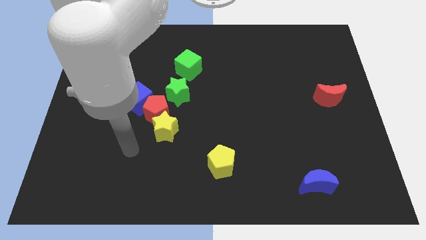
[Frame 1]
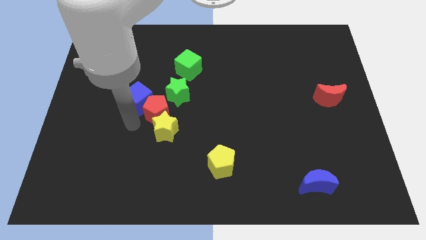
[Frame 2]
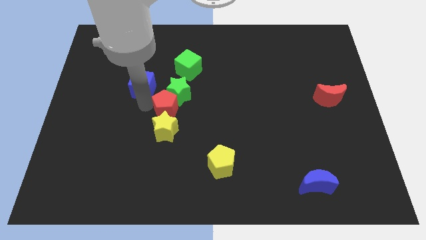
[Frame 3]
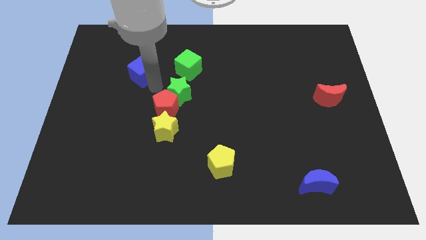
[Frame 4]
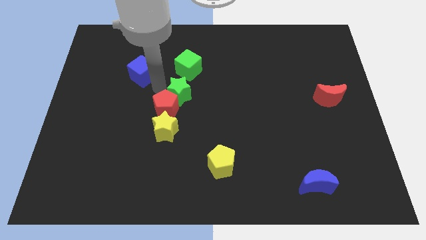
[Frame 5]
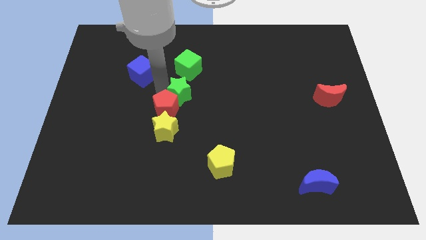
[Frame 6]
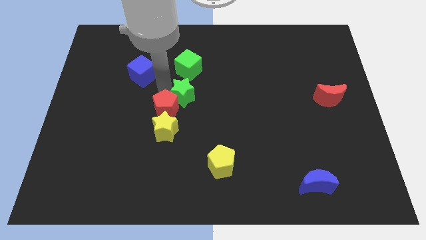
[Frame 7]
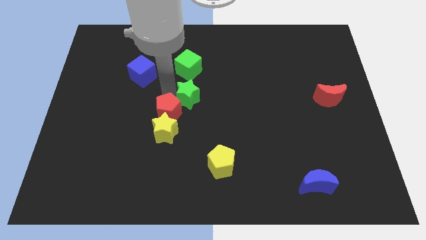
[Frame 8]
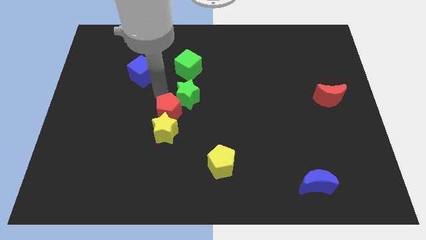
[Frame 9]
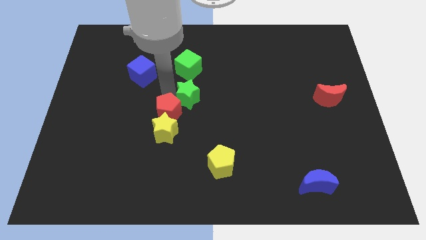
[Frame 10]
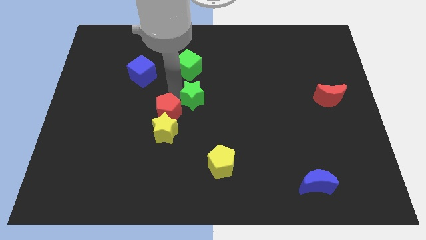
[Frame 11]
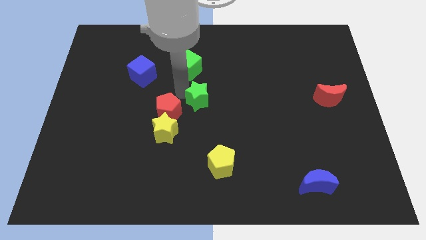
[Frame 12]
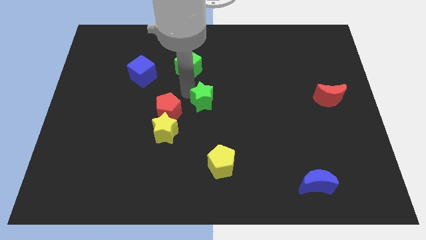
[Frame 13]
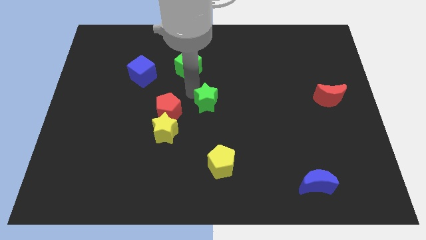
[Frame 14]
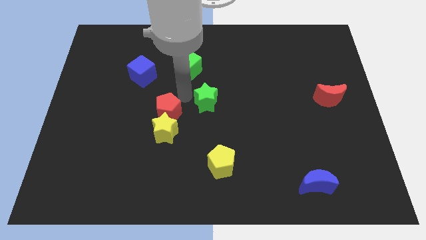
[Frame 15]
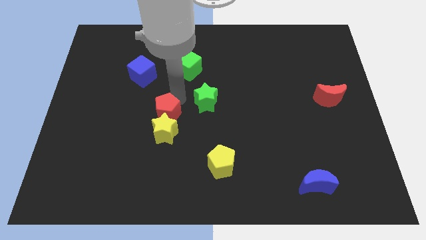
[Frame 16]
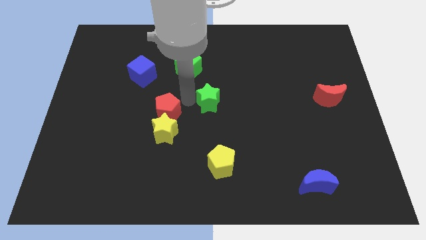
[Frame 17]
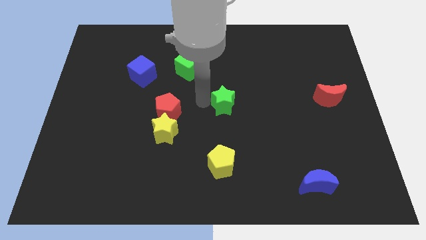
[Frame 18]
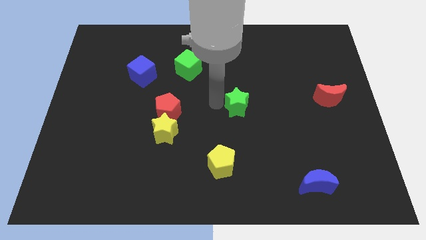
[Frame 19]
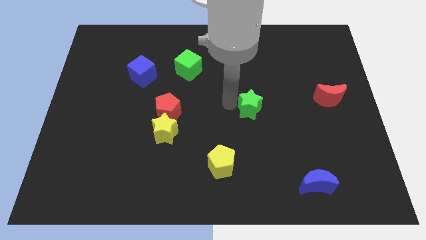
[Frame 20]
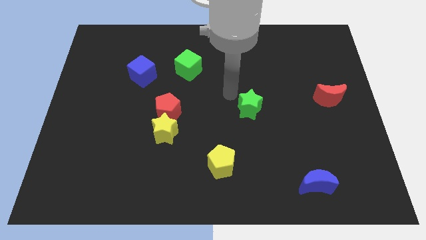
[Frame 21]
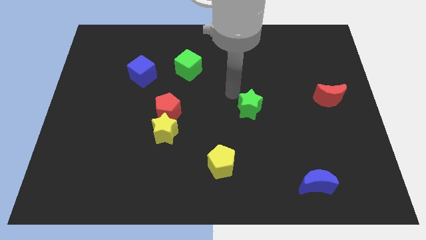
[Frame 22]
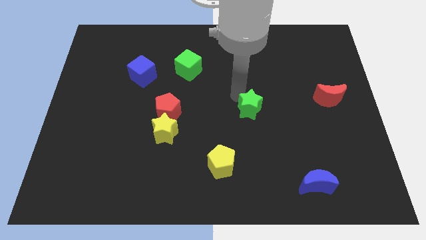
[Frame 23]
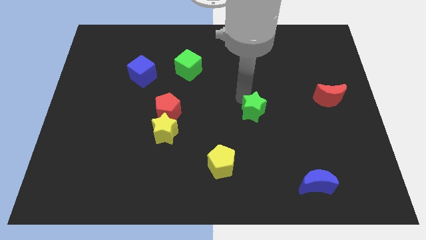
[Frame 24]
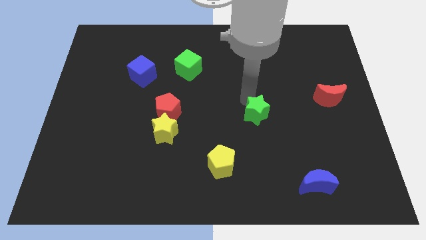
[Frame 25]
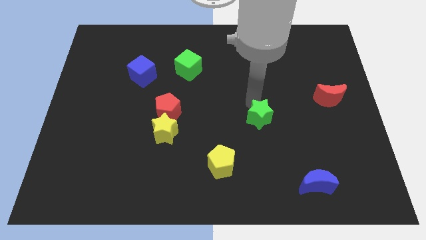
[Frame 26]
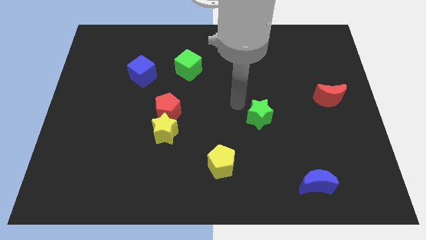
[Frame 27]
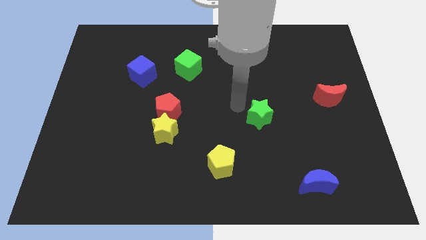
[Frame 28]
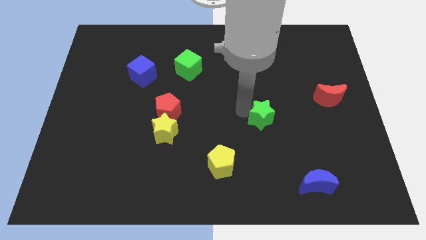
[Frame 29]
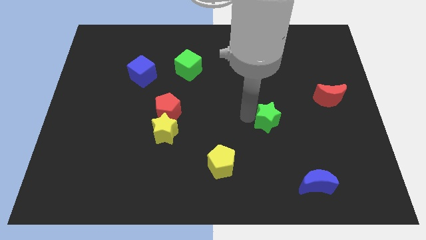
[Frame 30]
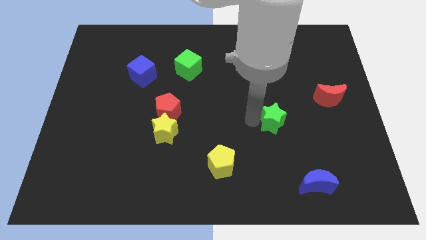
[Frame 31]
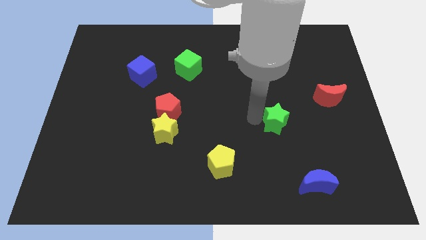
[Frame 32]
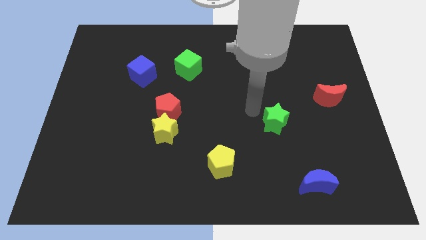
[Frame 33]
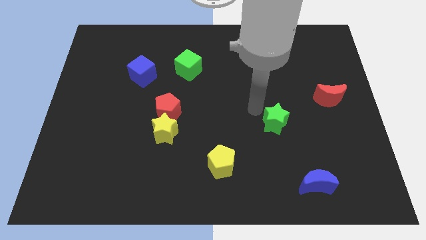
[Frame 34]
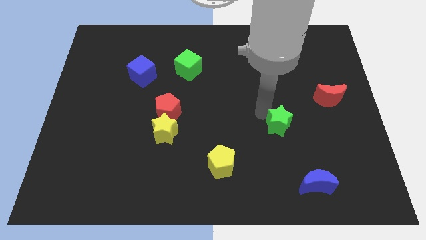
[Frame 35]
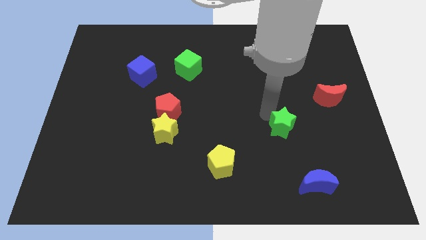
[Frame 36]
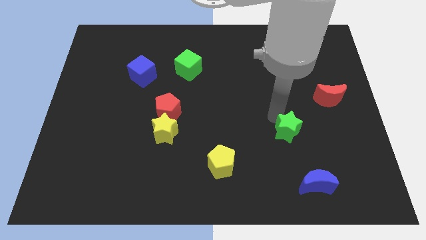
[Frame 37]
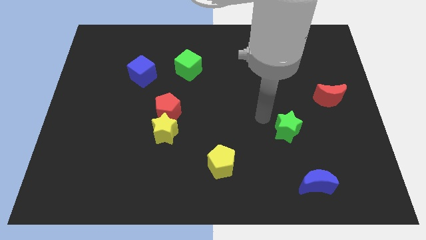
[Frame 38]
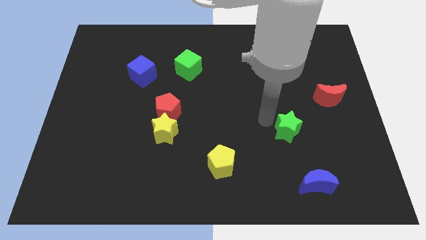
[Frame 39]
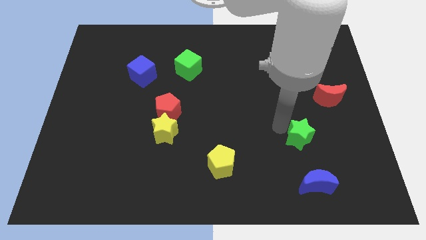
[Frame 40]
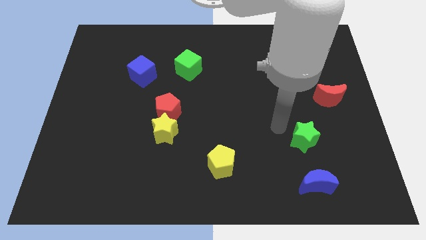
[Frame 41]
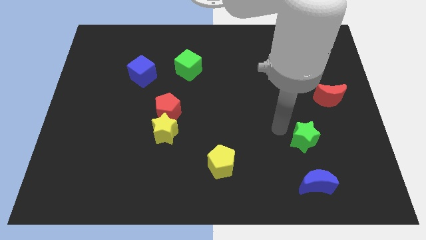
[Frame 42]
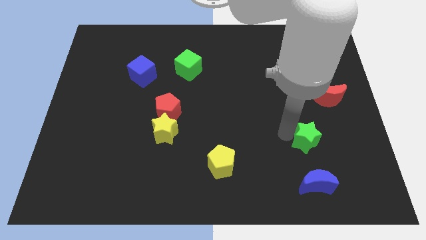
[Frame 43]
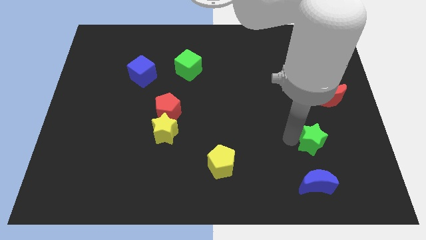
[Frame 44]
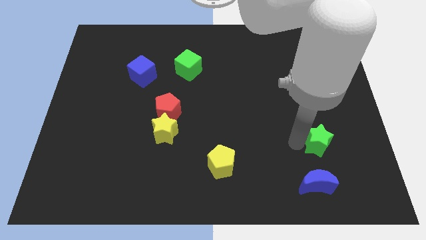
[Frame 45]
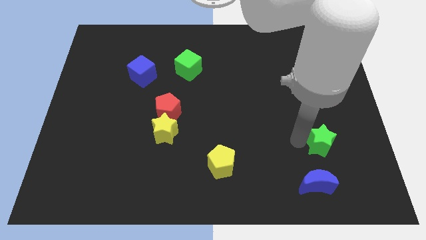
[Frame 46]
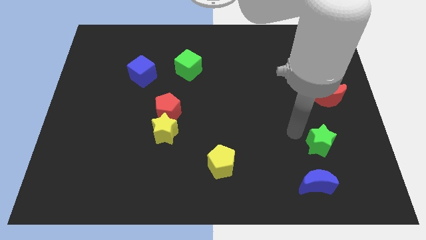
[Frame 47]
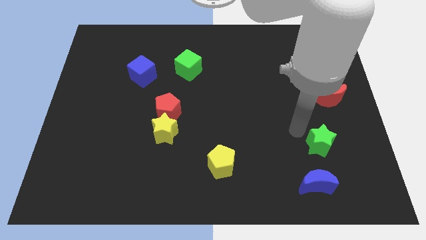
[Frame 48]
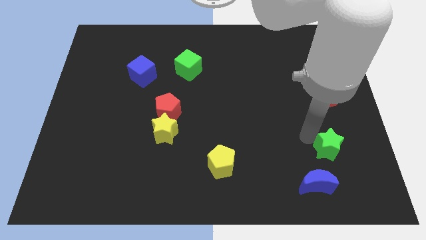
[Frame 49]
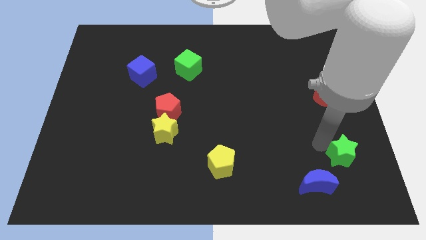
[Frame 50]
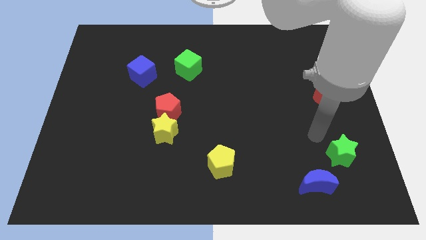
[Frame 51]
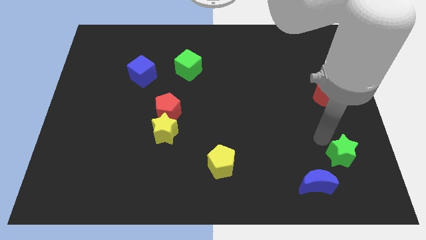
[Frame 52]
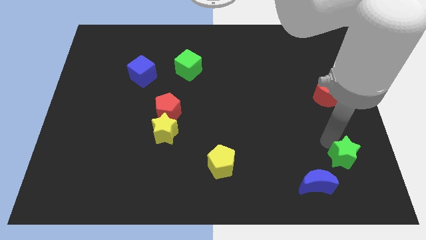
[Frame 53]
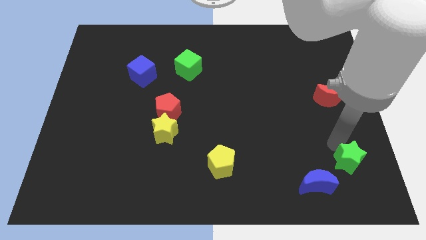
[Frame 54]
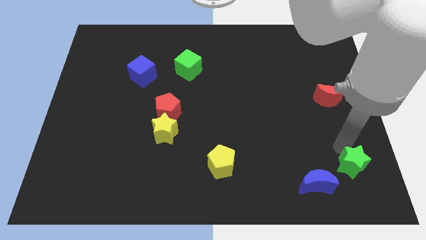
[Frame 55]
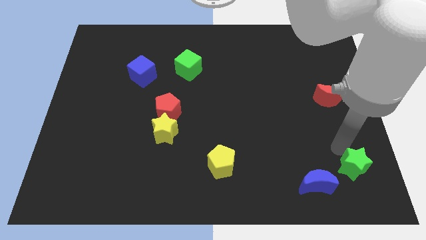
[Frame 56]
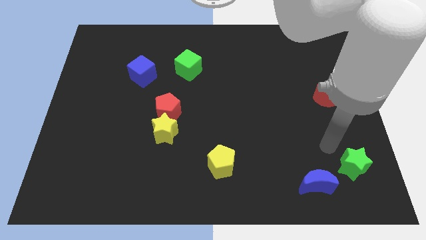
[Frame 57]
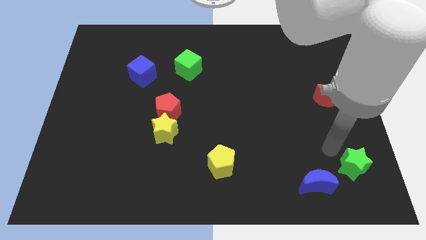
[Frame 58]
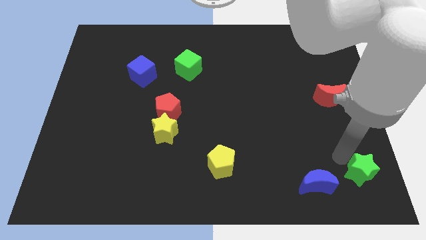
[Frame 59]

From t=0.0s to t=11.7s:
slide the green star to the bottom right of the board
